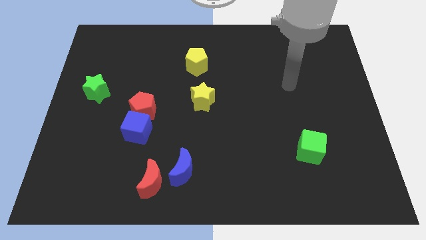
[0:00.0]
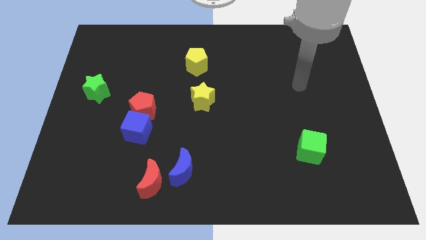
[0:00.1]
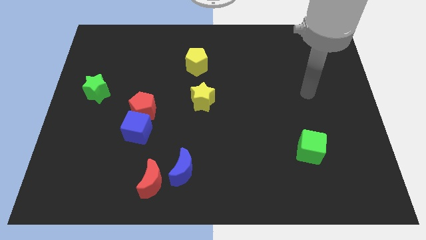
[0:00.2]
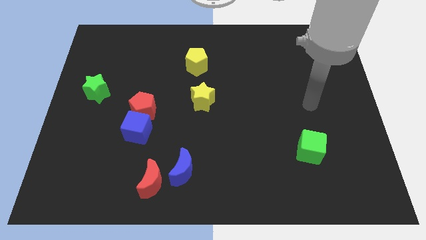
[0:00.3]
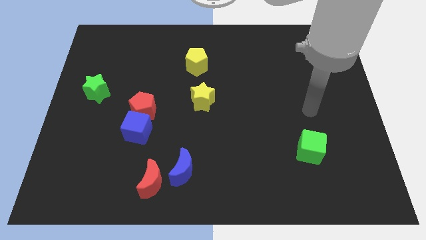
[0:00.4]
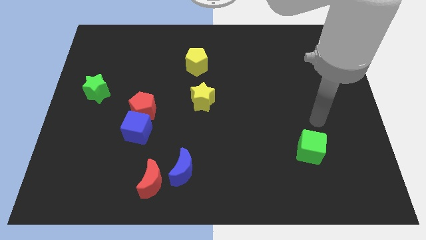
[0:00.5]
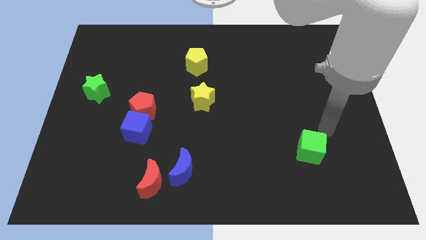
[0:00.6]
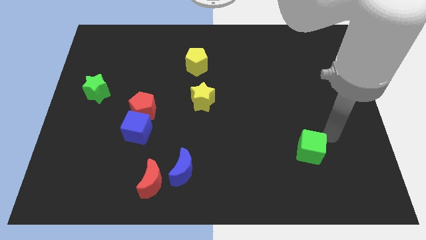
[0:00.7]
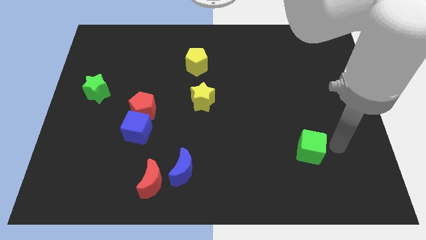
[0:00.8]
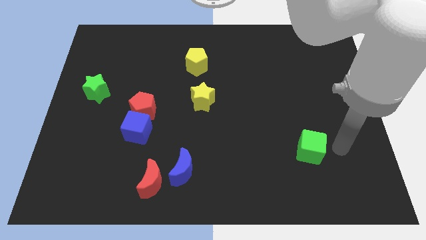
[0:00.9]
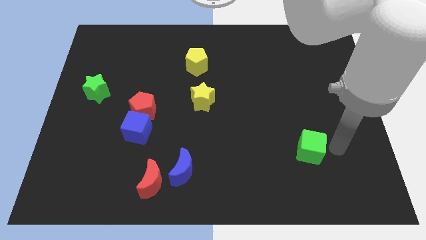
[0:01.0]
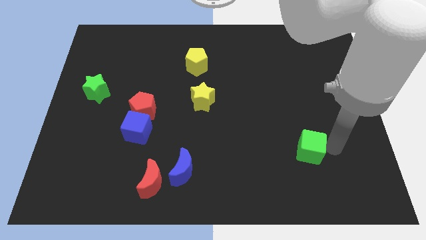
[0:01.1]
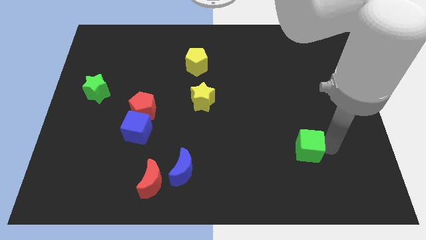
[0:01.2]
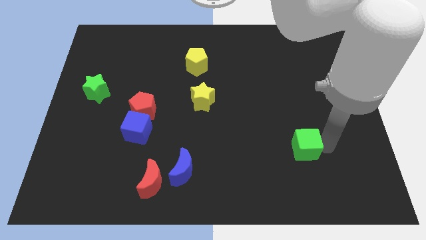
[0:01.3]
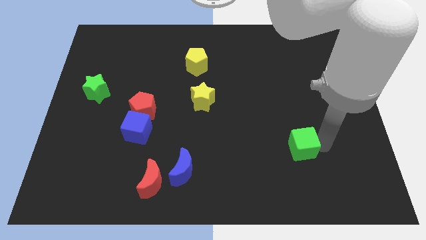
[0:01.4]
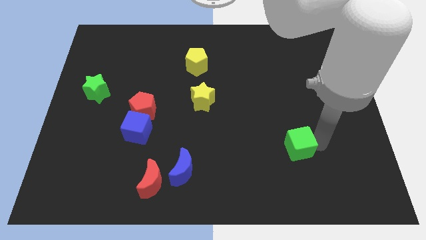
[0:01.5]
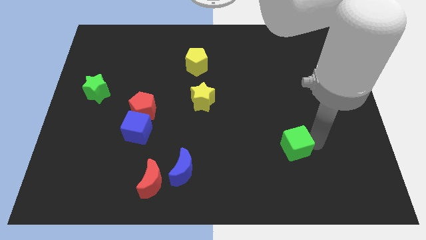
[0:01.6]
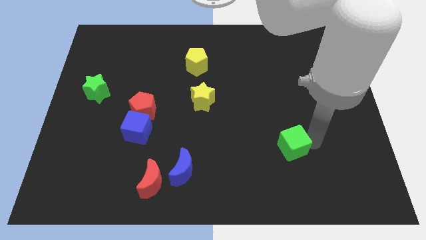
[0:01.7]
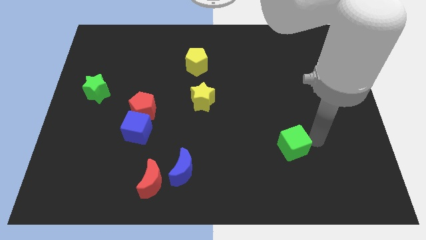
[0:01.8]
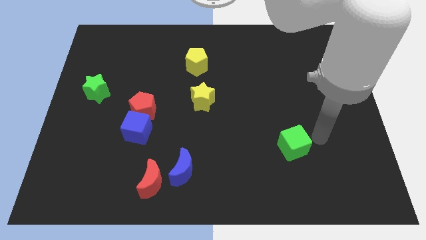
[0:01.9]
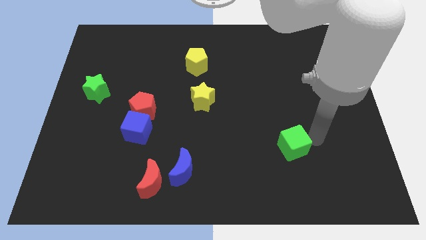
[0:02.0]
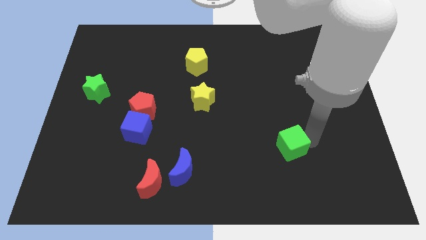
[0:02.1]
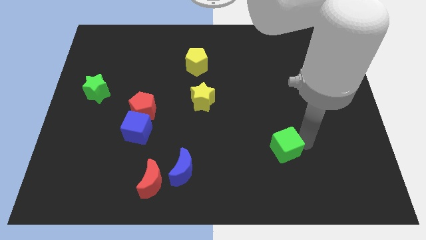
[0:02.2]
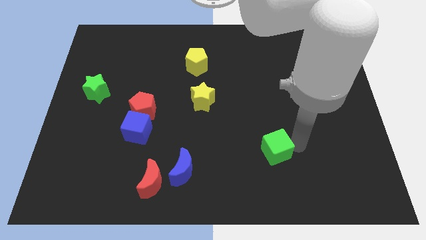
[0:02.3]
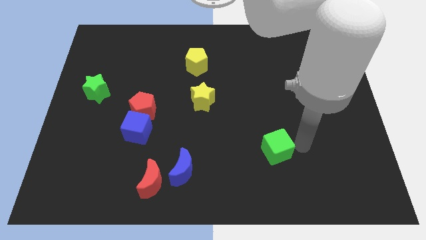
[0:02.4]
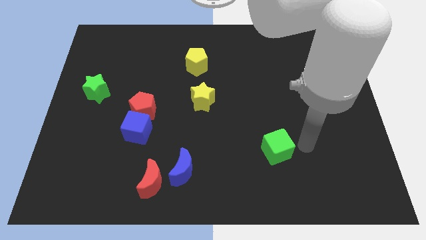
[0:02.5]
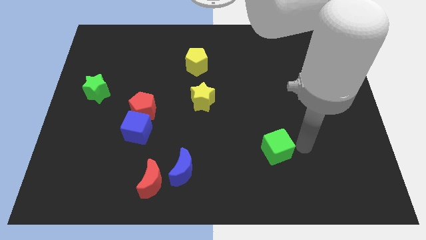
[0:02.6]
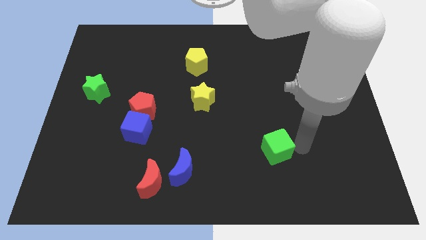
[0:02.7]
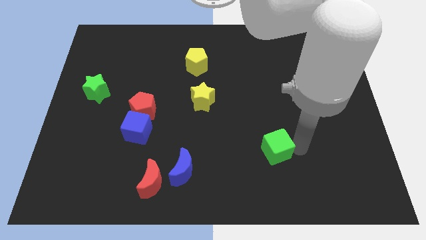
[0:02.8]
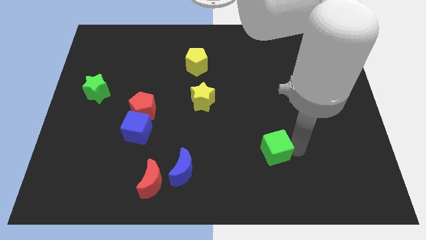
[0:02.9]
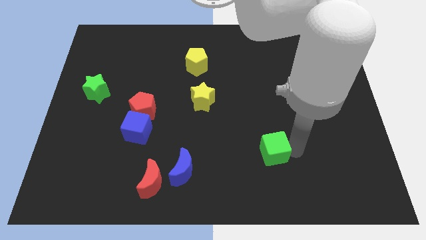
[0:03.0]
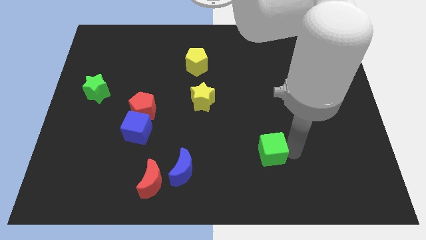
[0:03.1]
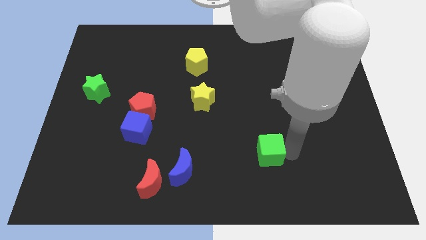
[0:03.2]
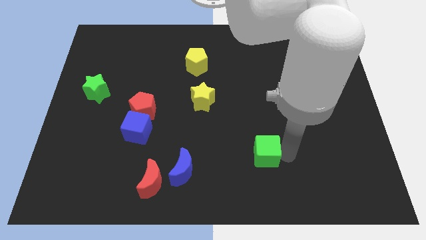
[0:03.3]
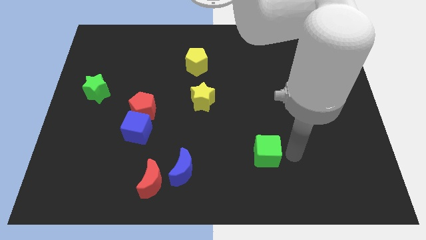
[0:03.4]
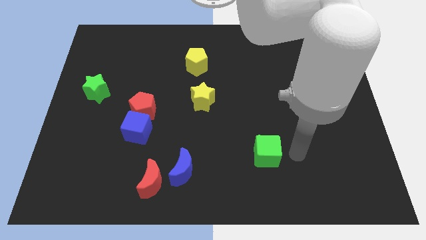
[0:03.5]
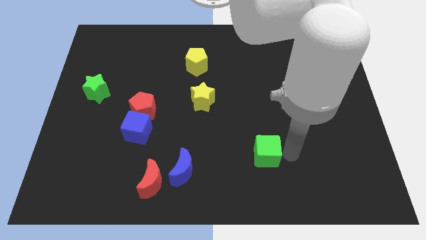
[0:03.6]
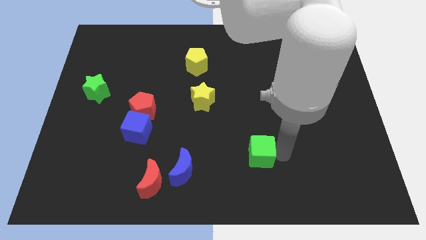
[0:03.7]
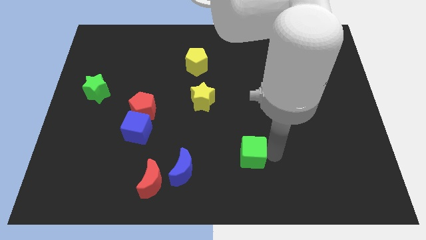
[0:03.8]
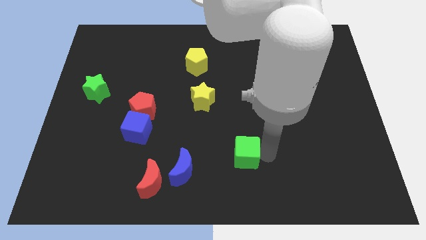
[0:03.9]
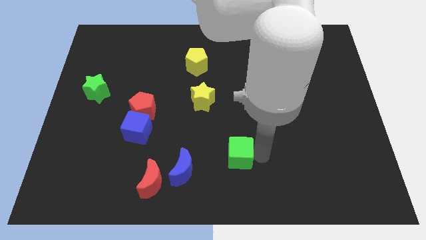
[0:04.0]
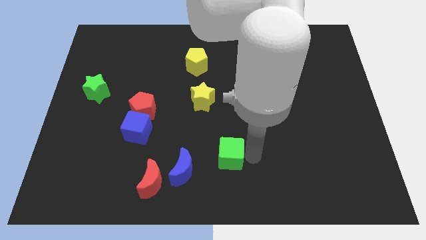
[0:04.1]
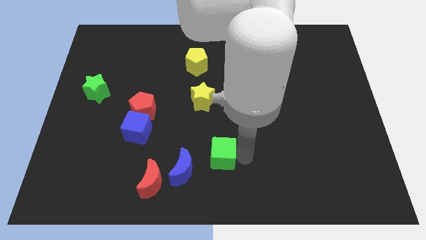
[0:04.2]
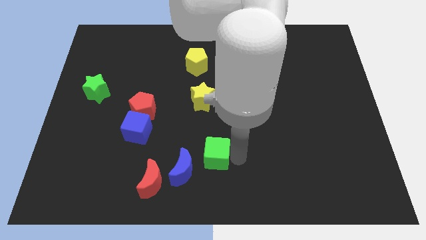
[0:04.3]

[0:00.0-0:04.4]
slide the green cube to the left

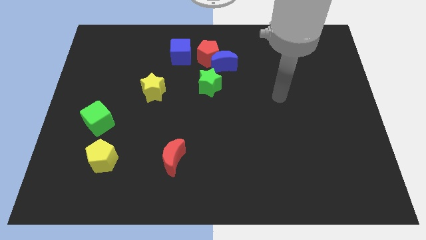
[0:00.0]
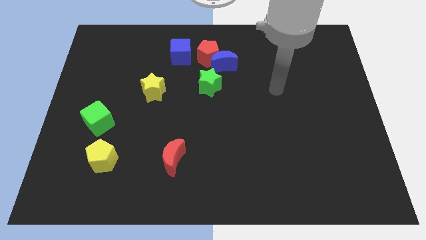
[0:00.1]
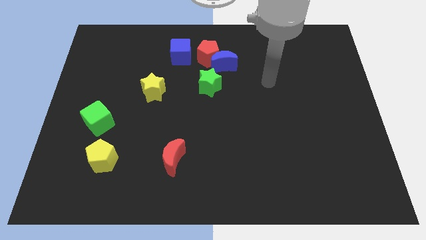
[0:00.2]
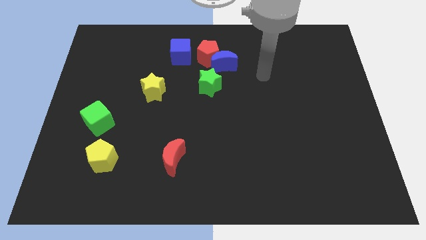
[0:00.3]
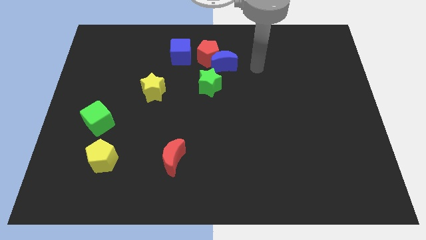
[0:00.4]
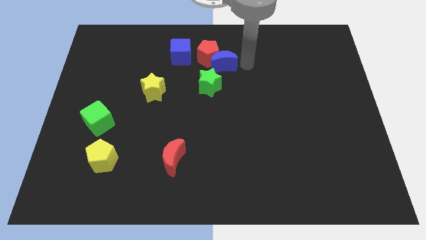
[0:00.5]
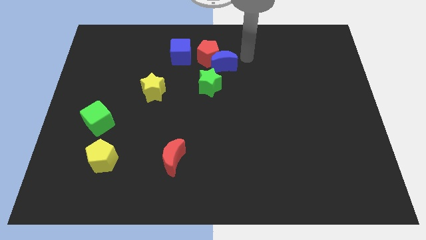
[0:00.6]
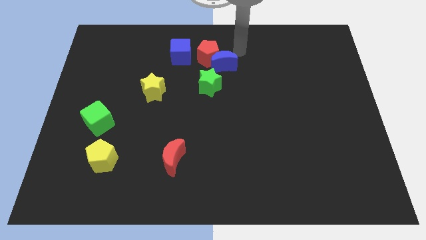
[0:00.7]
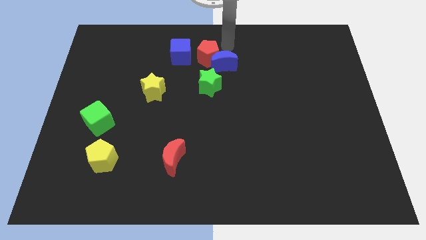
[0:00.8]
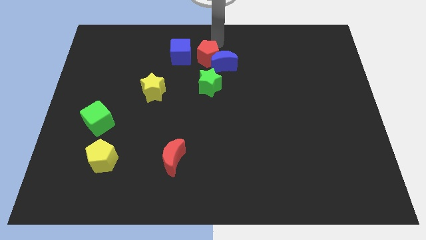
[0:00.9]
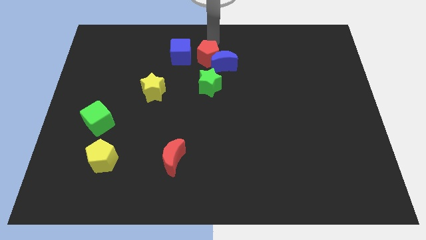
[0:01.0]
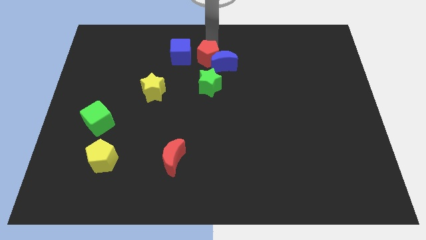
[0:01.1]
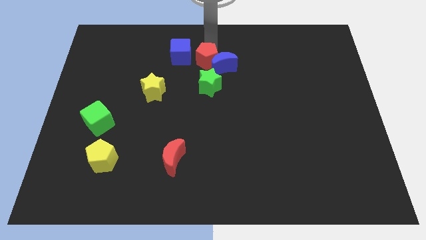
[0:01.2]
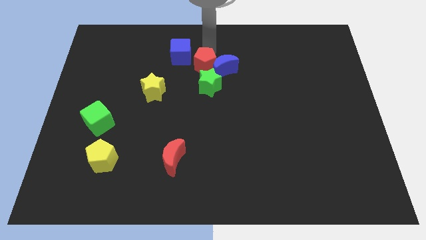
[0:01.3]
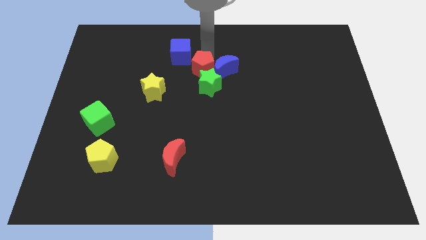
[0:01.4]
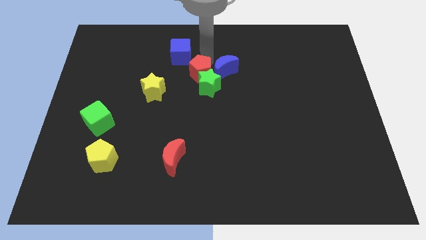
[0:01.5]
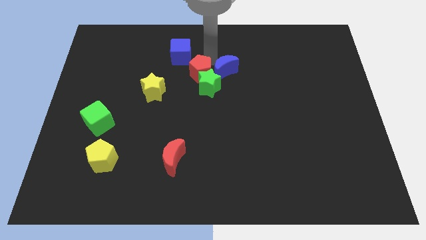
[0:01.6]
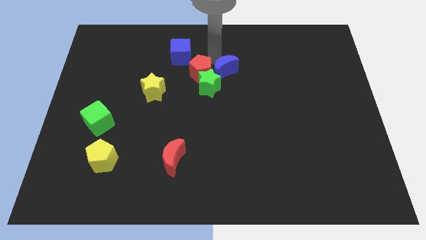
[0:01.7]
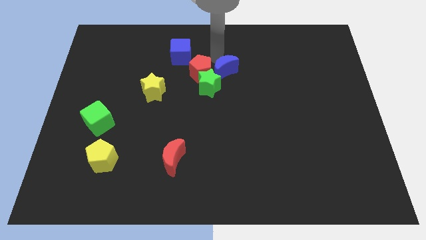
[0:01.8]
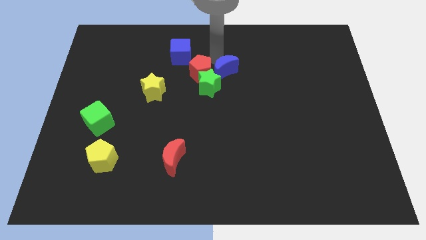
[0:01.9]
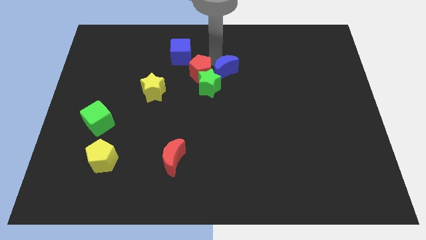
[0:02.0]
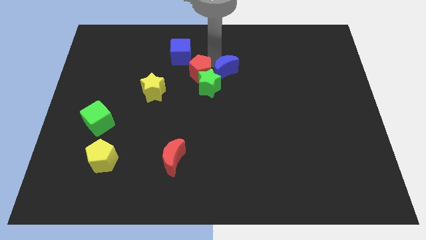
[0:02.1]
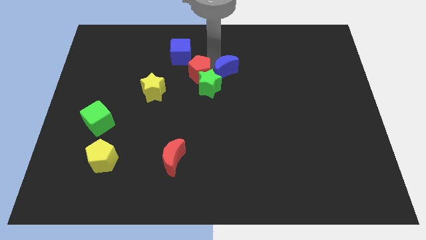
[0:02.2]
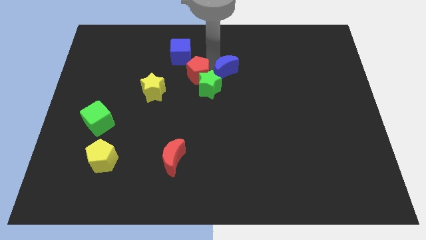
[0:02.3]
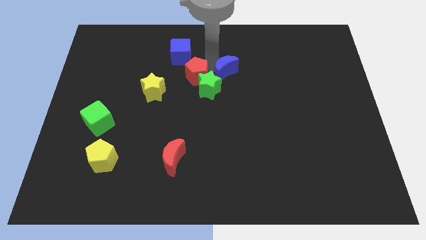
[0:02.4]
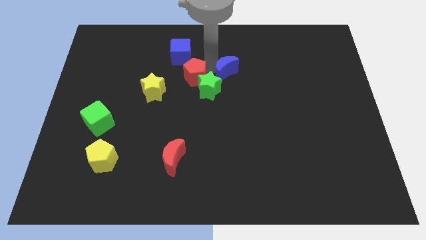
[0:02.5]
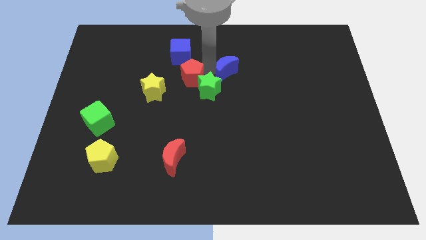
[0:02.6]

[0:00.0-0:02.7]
move the red pentagon down somewhat

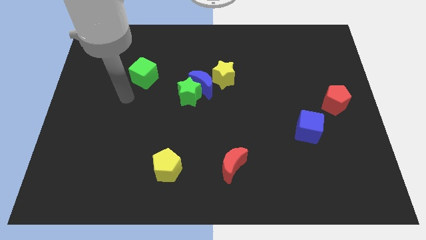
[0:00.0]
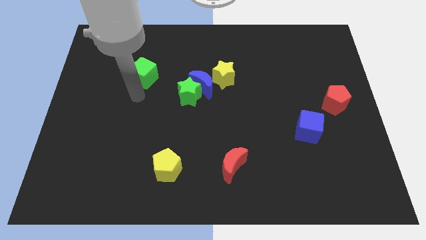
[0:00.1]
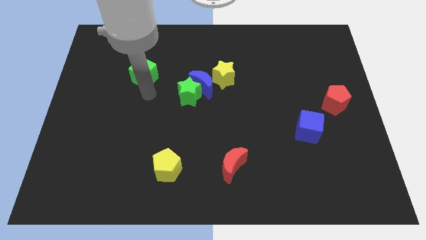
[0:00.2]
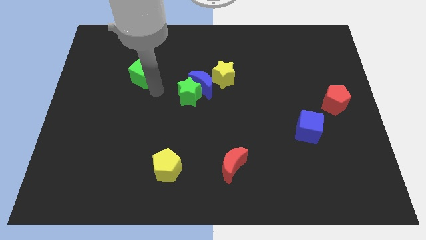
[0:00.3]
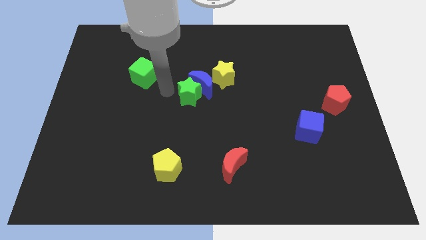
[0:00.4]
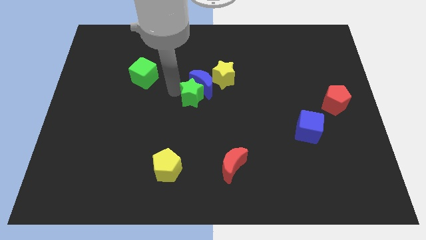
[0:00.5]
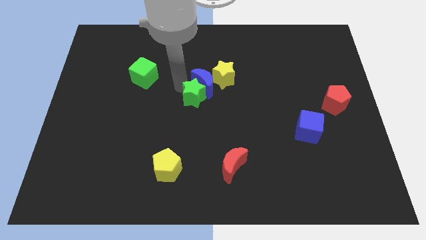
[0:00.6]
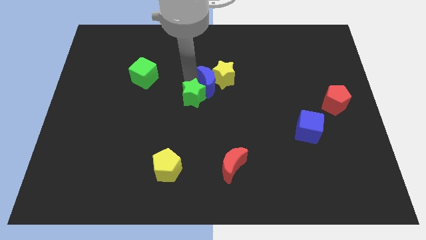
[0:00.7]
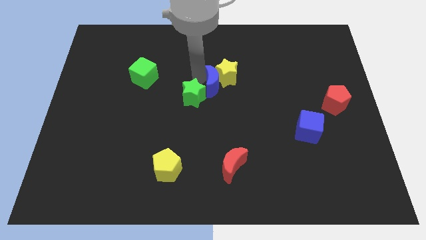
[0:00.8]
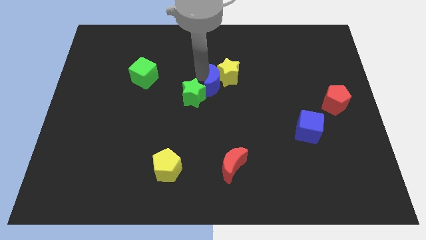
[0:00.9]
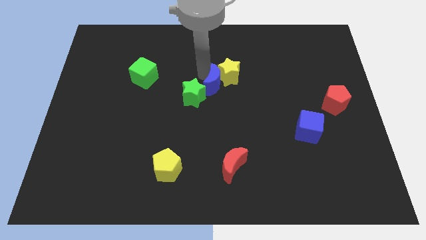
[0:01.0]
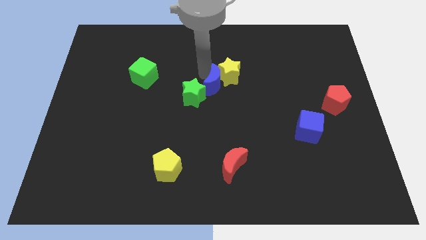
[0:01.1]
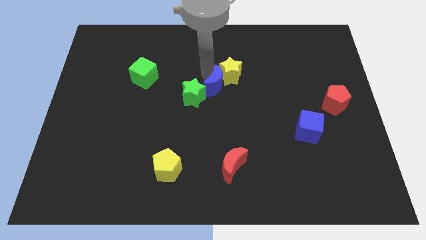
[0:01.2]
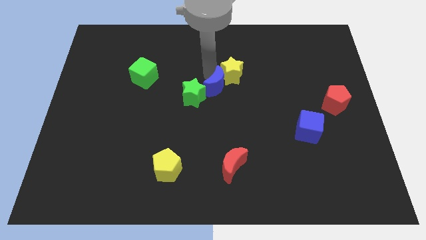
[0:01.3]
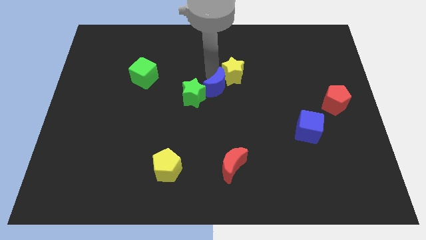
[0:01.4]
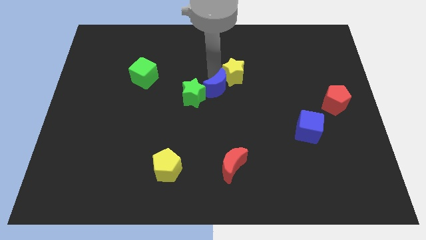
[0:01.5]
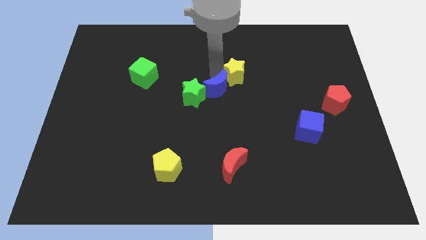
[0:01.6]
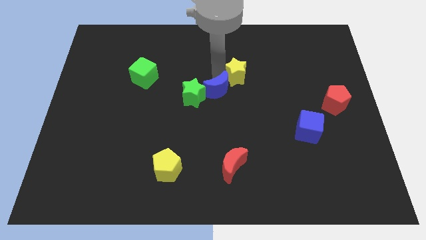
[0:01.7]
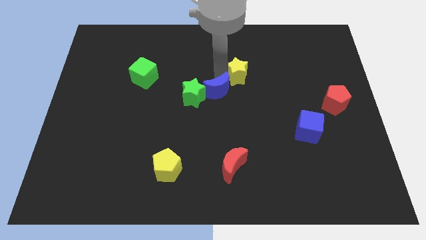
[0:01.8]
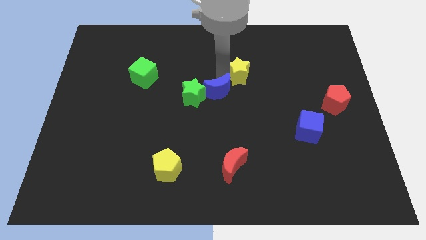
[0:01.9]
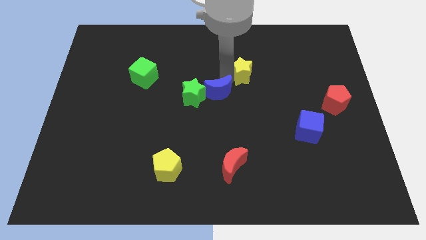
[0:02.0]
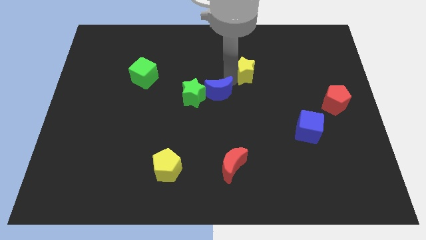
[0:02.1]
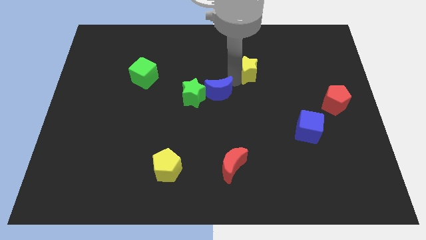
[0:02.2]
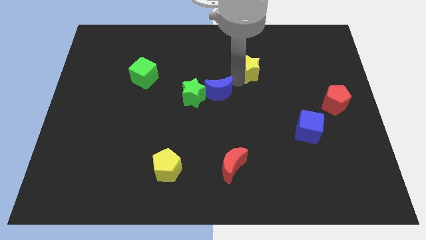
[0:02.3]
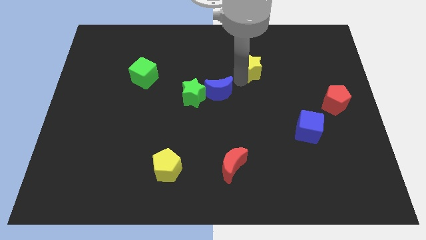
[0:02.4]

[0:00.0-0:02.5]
slightly slide the yellow star to the right
